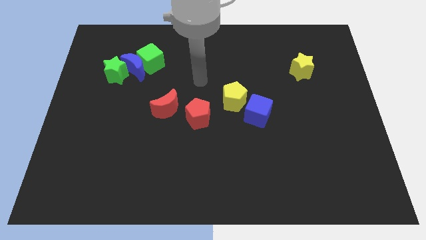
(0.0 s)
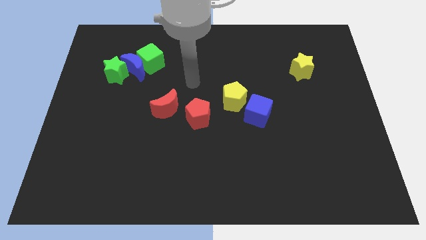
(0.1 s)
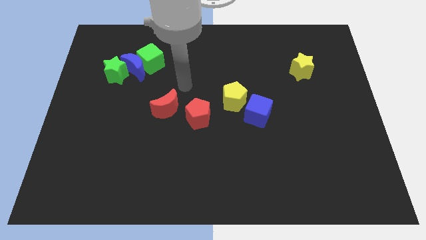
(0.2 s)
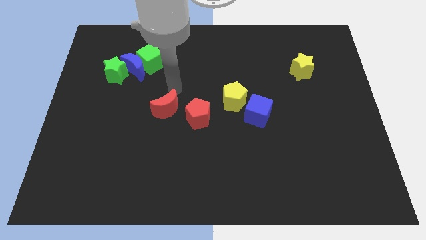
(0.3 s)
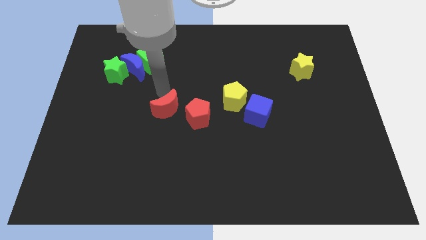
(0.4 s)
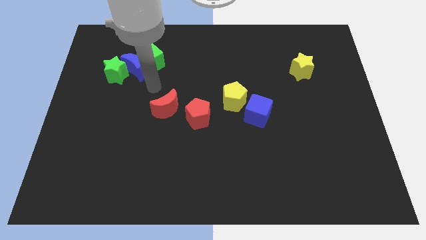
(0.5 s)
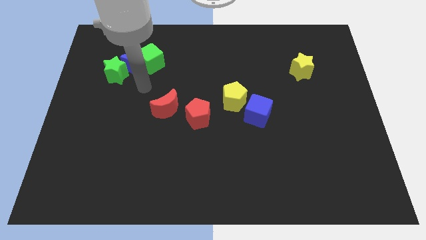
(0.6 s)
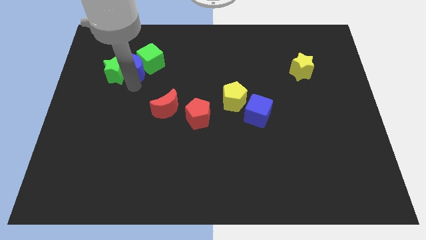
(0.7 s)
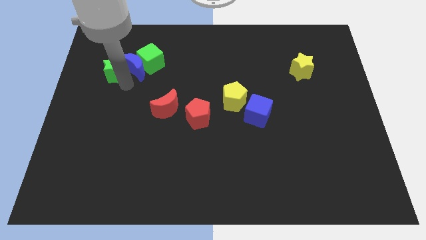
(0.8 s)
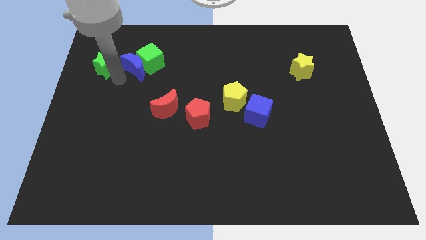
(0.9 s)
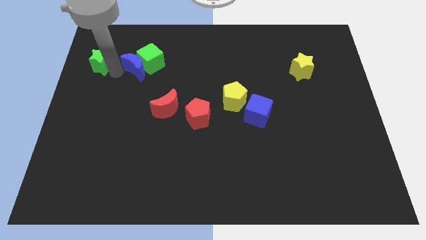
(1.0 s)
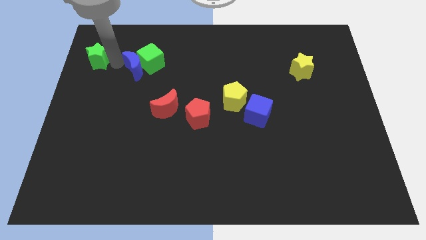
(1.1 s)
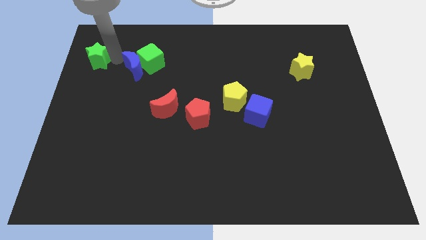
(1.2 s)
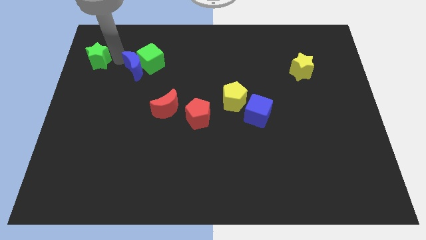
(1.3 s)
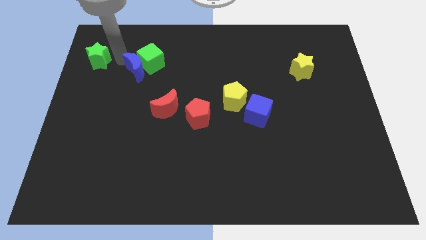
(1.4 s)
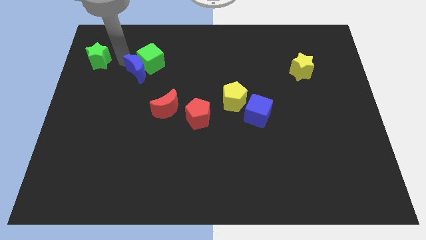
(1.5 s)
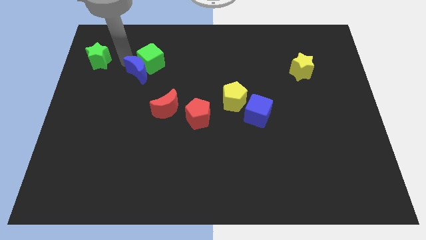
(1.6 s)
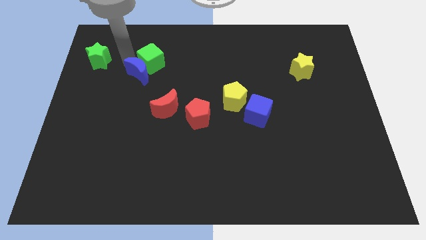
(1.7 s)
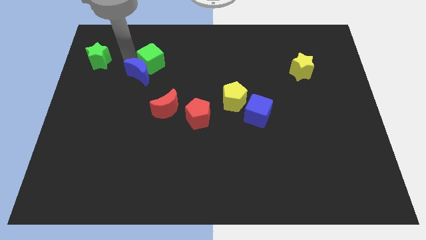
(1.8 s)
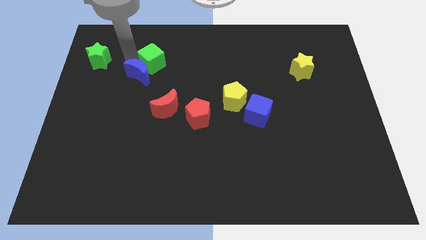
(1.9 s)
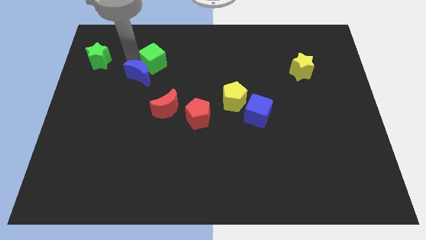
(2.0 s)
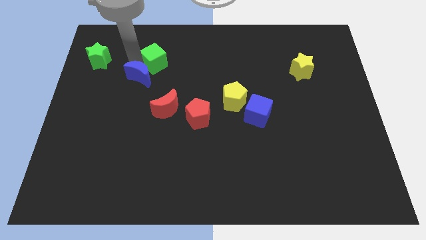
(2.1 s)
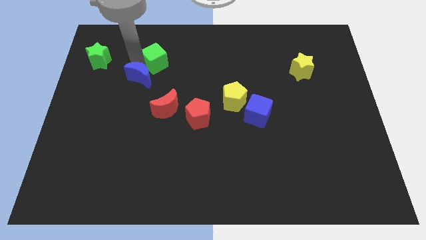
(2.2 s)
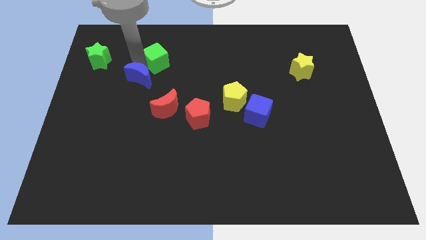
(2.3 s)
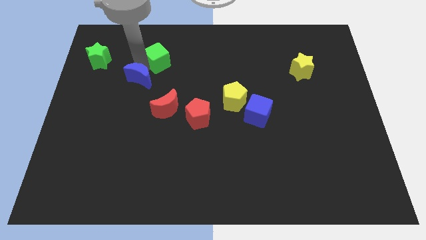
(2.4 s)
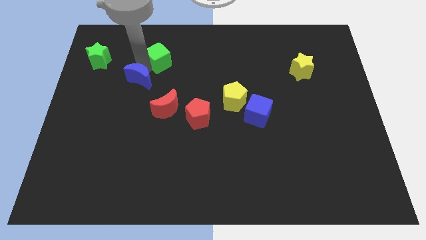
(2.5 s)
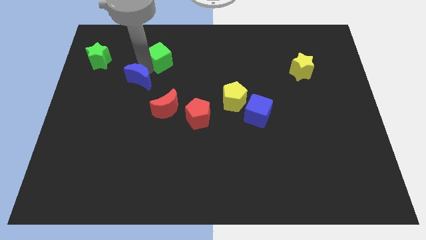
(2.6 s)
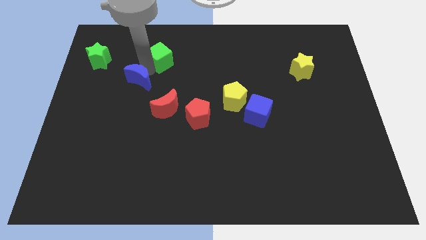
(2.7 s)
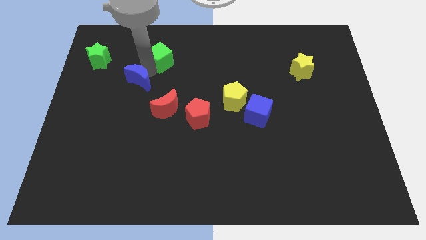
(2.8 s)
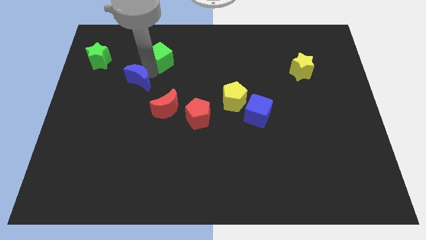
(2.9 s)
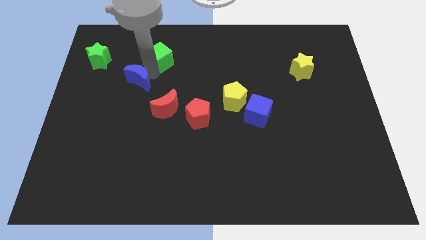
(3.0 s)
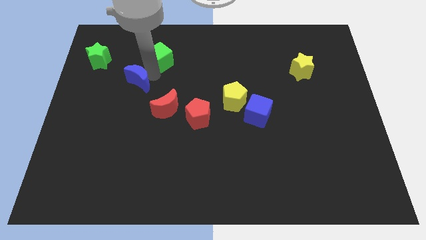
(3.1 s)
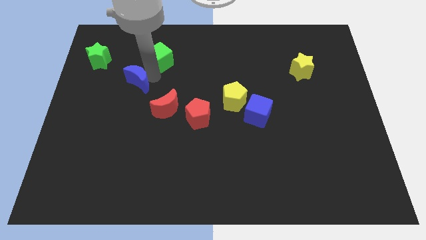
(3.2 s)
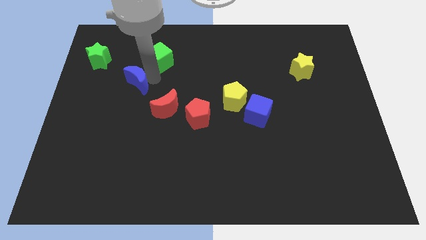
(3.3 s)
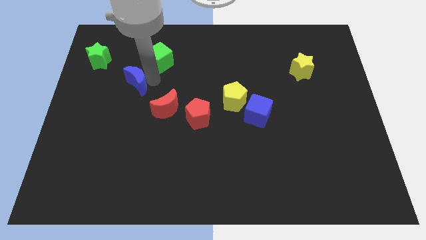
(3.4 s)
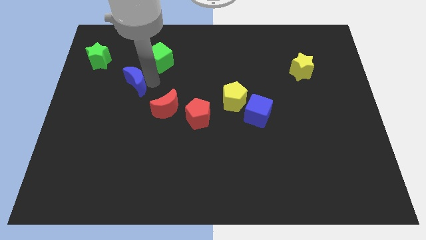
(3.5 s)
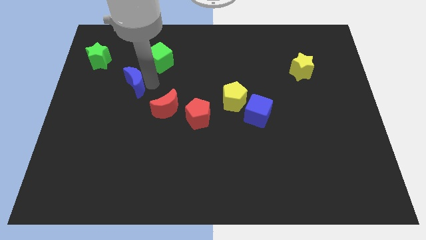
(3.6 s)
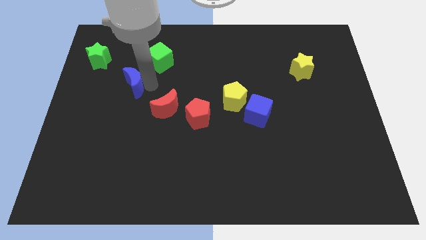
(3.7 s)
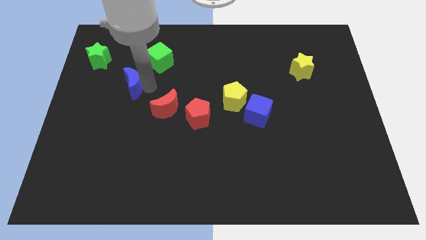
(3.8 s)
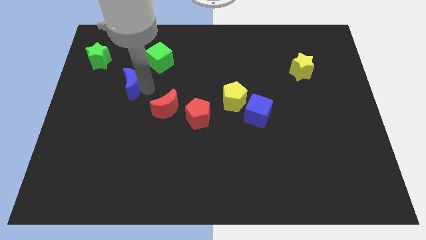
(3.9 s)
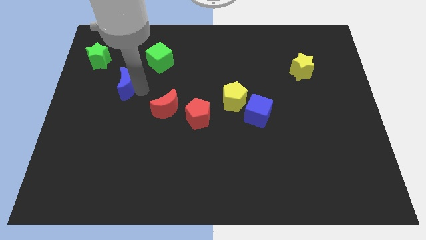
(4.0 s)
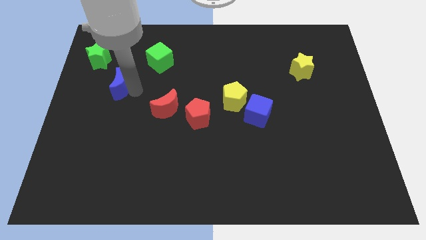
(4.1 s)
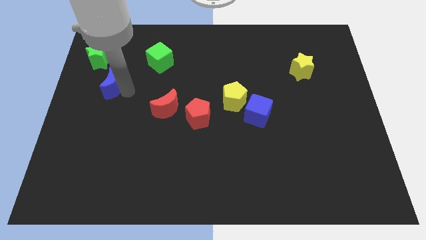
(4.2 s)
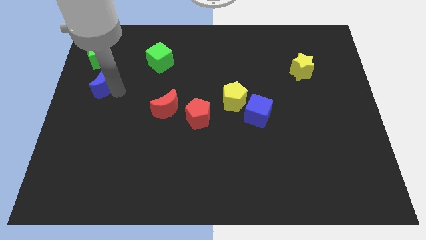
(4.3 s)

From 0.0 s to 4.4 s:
separate the blue moon from the green cube and green star

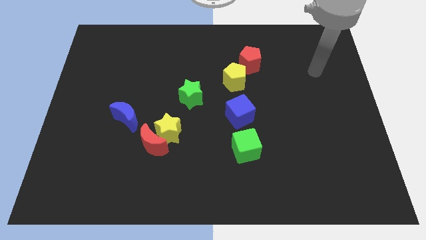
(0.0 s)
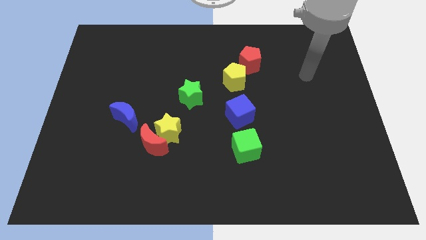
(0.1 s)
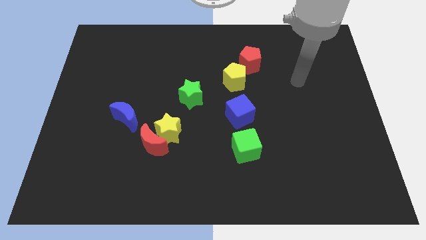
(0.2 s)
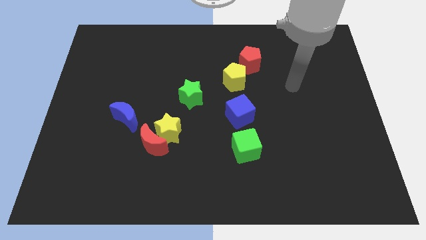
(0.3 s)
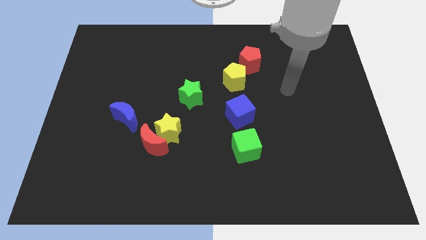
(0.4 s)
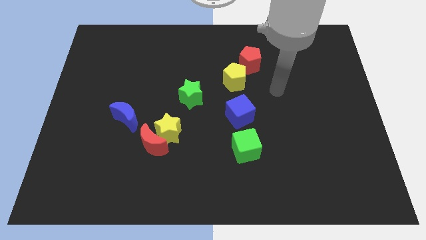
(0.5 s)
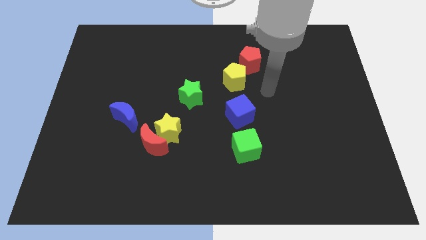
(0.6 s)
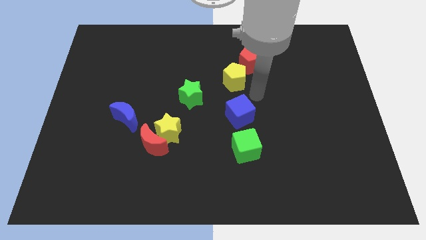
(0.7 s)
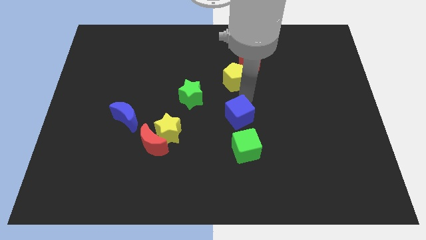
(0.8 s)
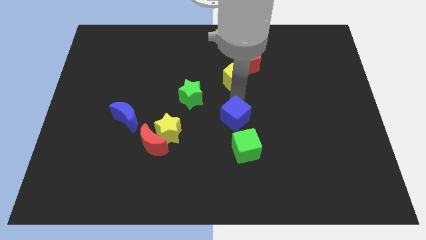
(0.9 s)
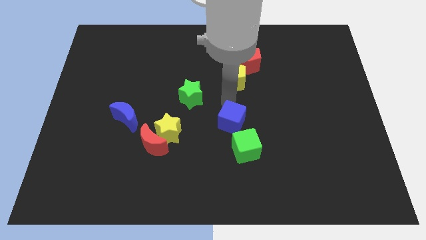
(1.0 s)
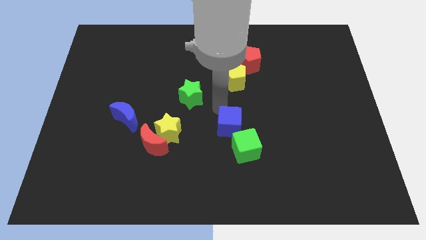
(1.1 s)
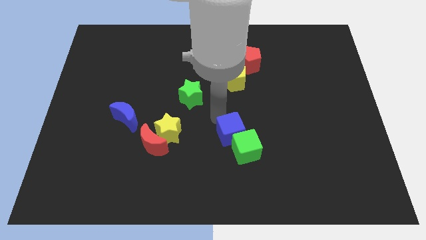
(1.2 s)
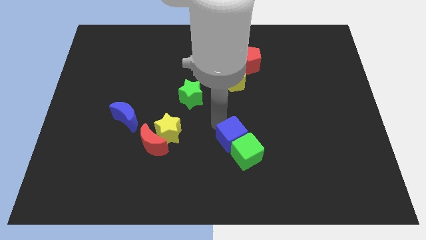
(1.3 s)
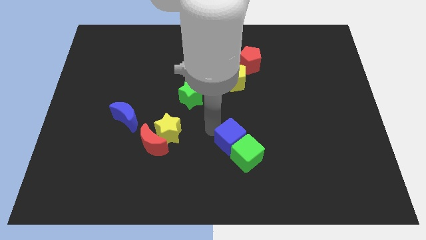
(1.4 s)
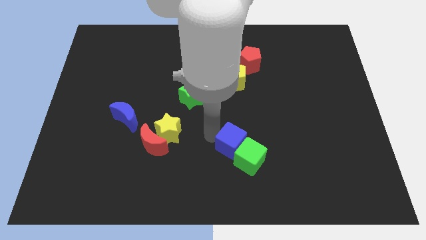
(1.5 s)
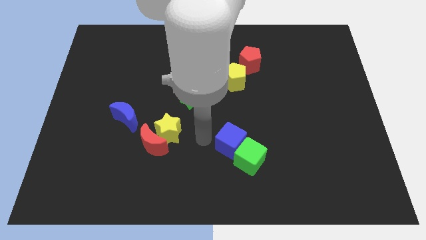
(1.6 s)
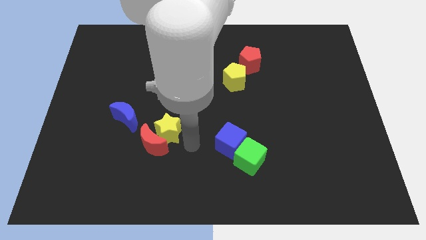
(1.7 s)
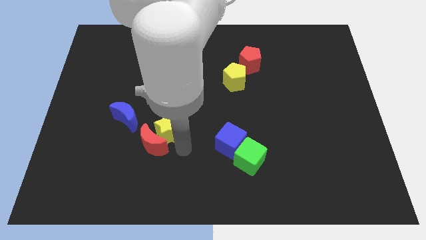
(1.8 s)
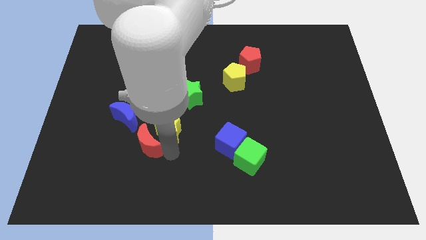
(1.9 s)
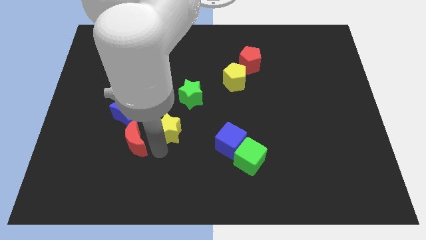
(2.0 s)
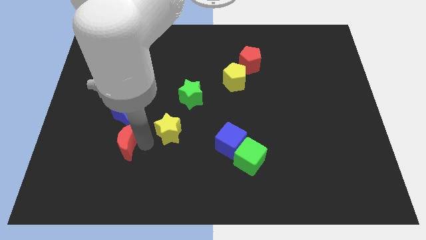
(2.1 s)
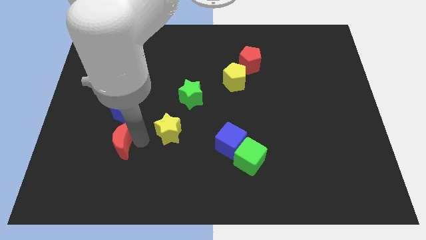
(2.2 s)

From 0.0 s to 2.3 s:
separate the yellow star from the red moon

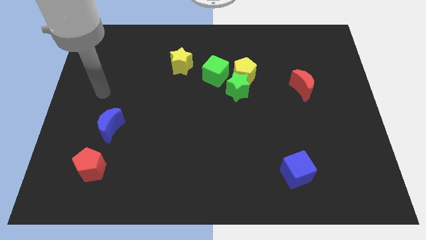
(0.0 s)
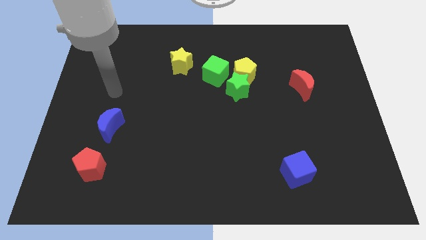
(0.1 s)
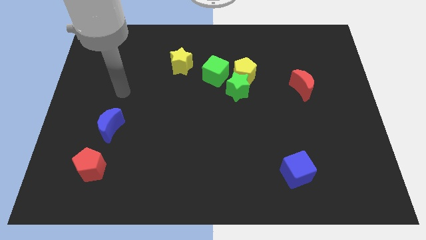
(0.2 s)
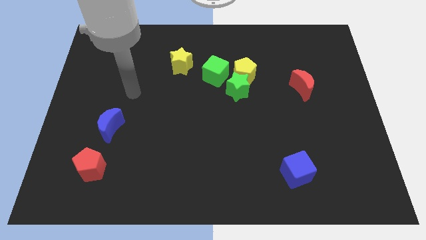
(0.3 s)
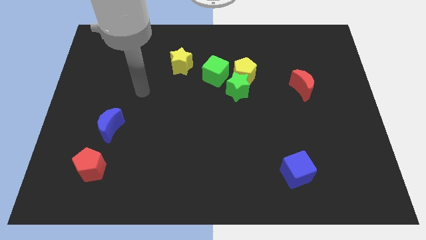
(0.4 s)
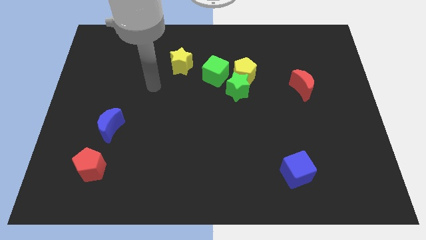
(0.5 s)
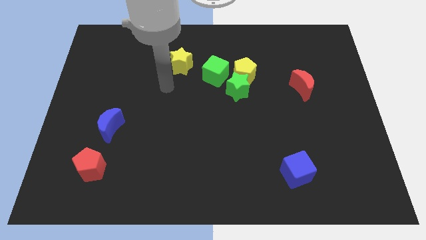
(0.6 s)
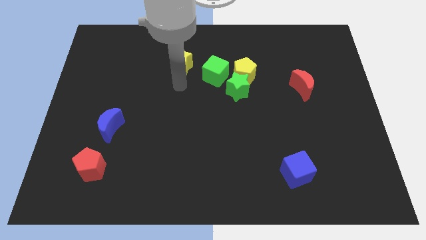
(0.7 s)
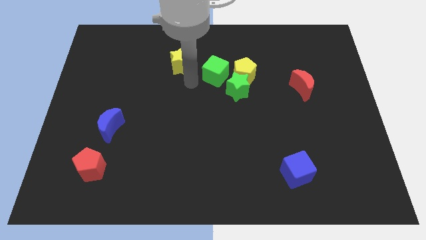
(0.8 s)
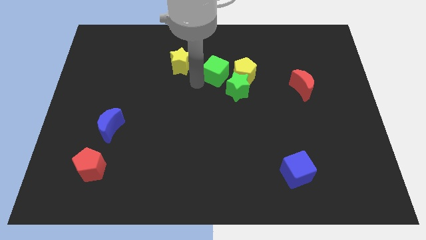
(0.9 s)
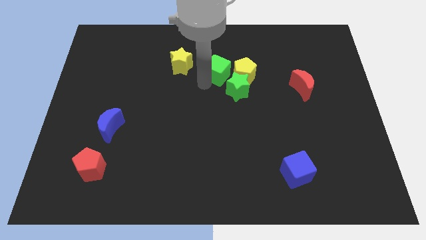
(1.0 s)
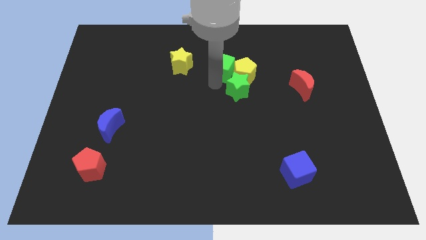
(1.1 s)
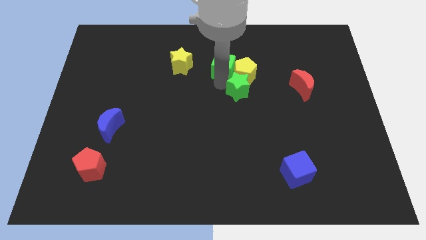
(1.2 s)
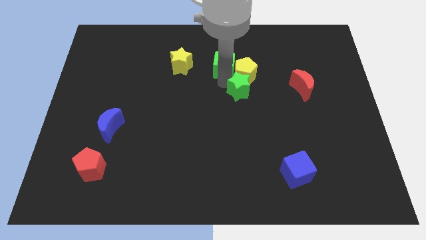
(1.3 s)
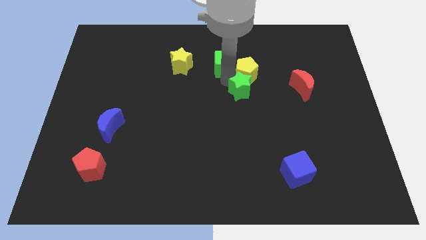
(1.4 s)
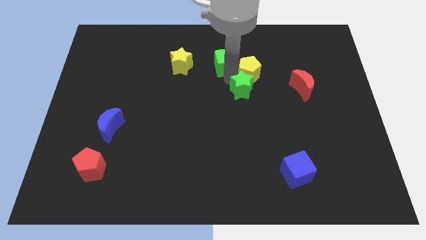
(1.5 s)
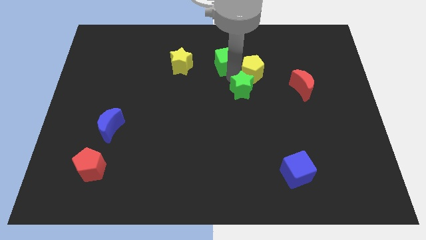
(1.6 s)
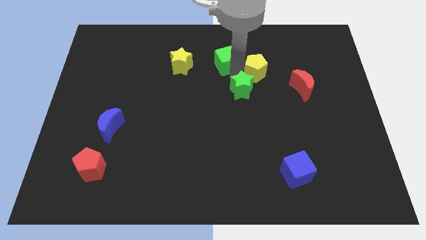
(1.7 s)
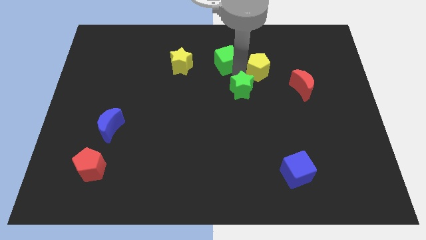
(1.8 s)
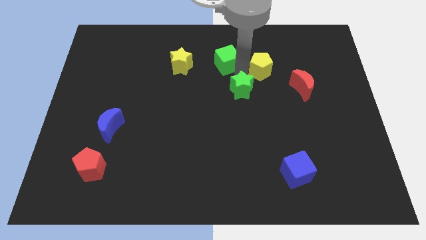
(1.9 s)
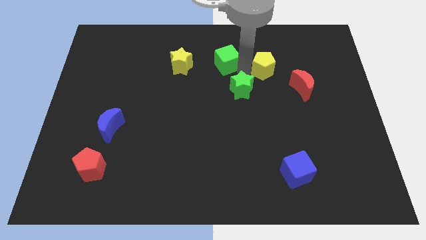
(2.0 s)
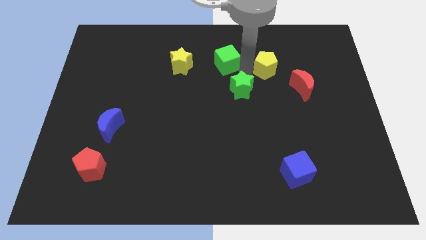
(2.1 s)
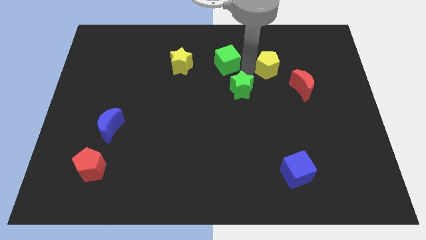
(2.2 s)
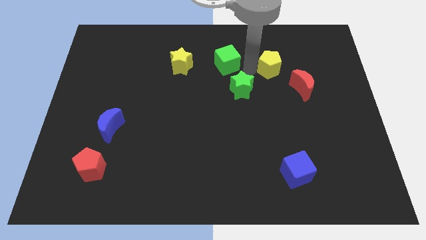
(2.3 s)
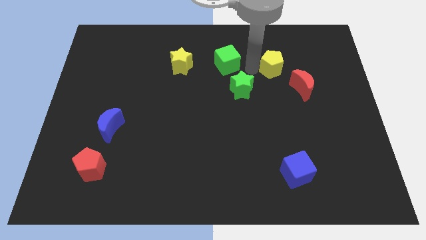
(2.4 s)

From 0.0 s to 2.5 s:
move the yellow pentagon away from the green star and green cube

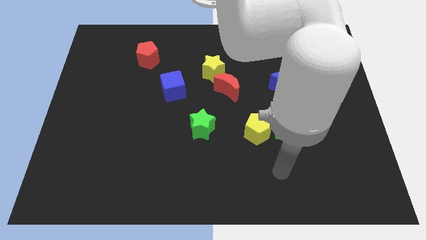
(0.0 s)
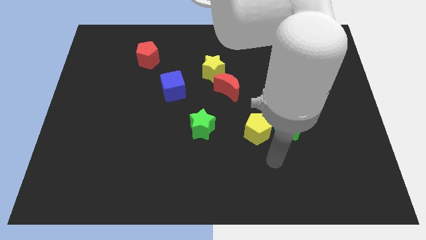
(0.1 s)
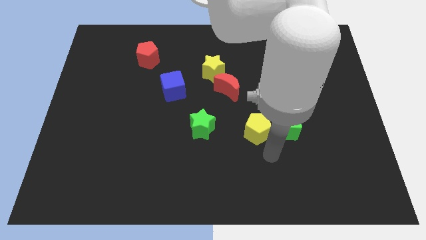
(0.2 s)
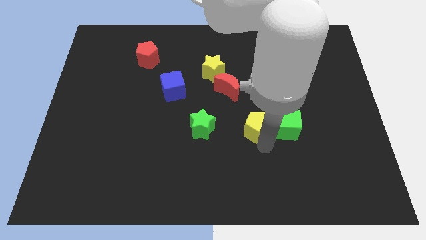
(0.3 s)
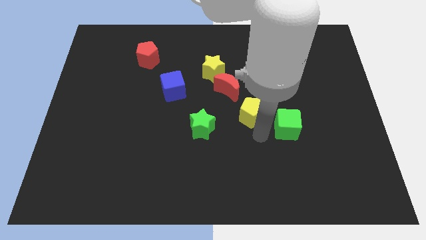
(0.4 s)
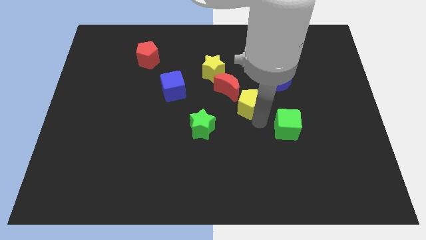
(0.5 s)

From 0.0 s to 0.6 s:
separate the green cube from the yellow pentagon
